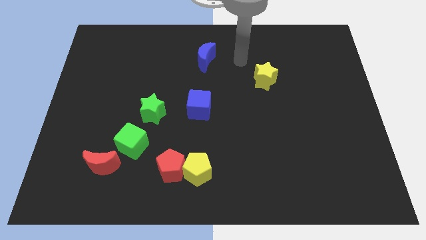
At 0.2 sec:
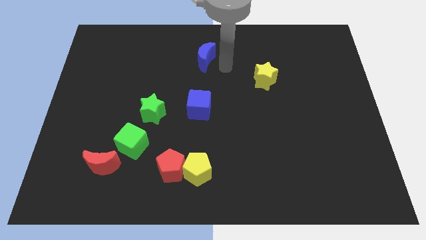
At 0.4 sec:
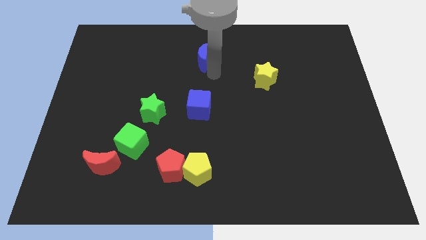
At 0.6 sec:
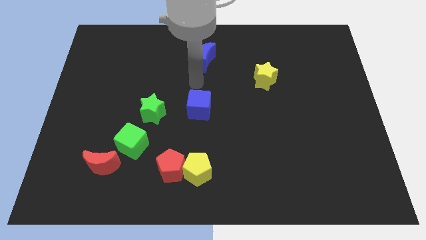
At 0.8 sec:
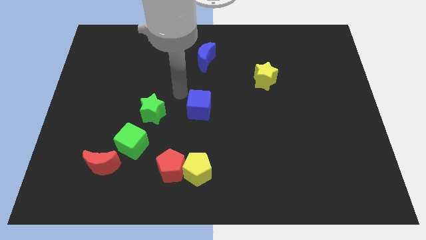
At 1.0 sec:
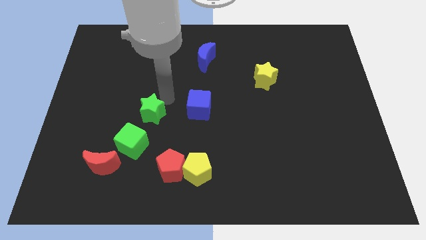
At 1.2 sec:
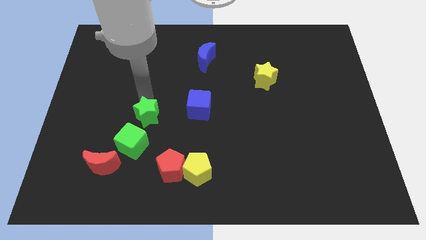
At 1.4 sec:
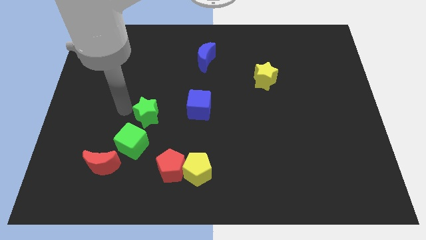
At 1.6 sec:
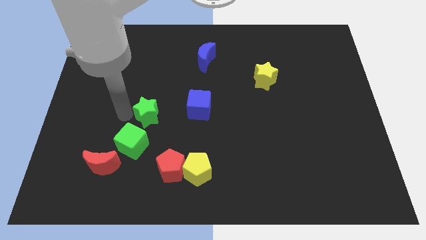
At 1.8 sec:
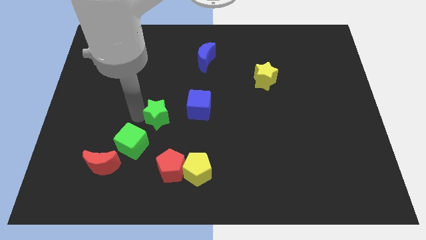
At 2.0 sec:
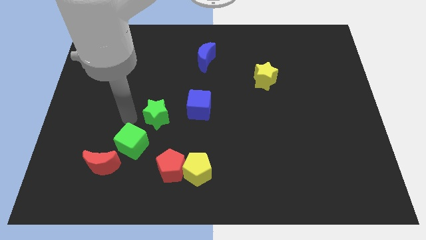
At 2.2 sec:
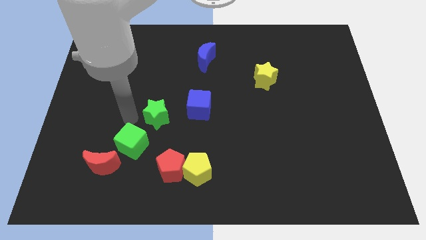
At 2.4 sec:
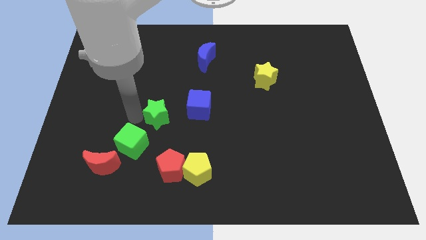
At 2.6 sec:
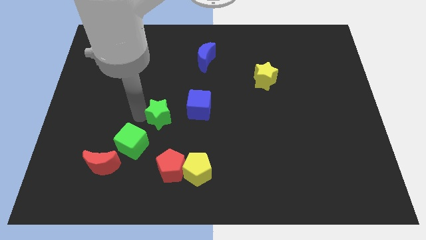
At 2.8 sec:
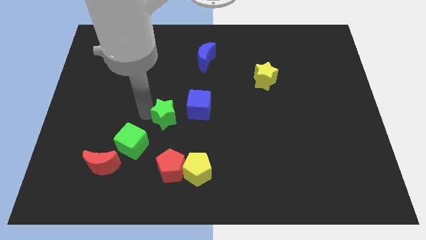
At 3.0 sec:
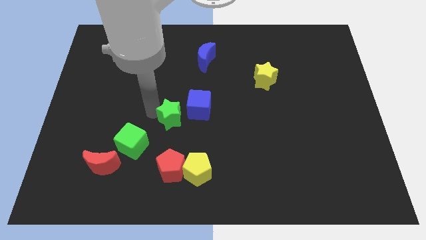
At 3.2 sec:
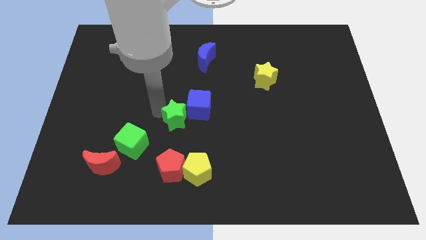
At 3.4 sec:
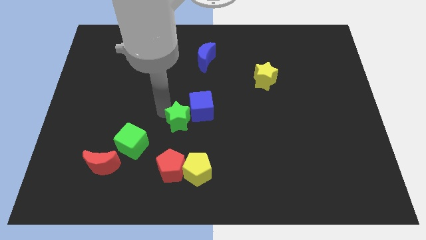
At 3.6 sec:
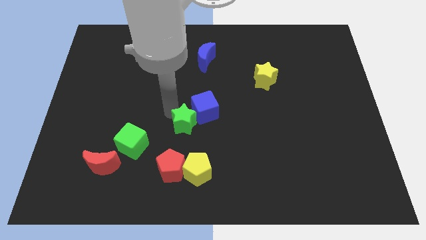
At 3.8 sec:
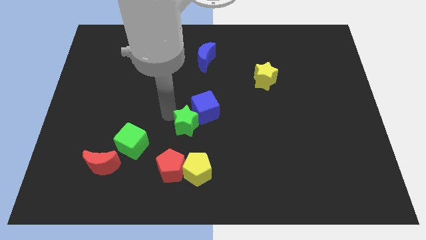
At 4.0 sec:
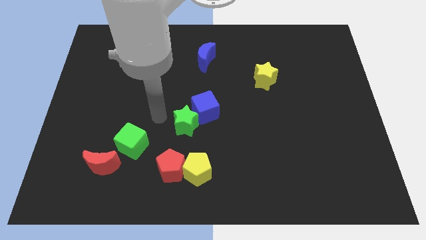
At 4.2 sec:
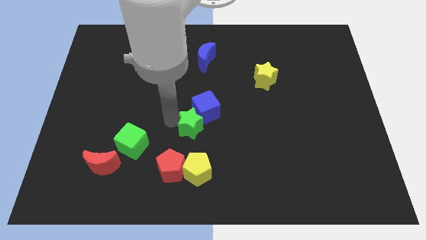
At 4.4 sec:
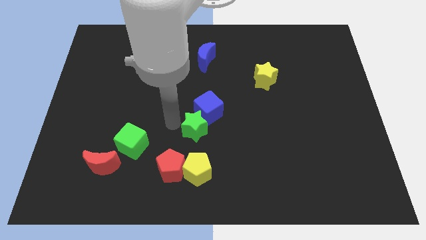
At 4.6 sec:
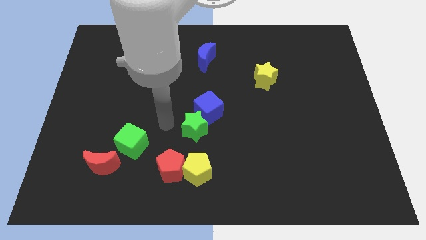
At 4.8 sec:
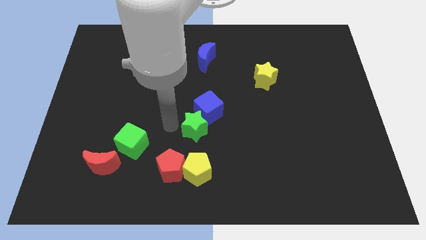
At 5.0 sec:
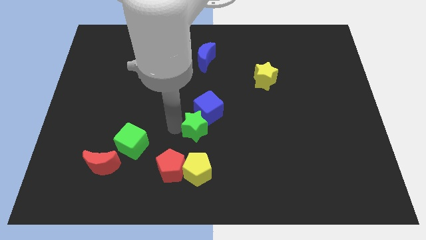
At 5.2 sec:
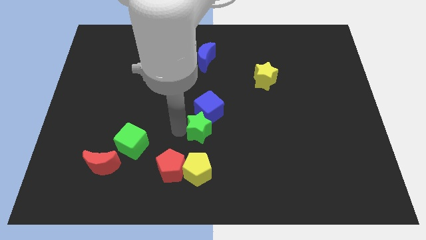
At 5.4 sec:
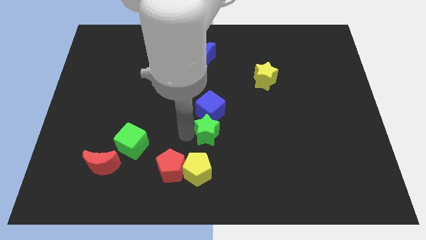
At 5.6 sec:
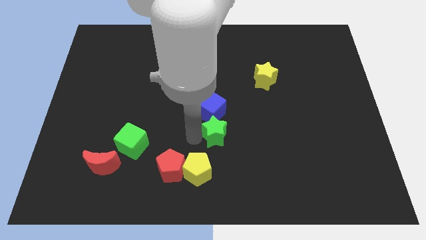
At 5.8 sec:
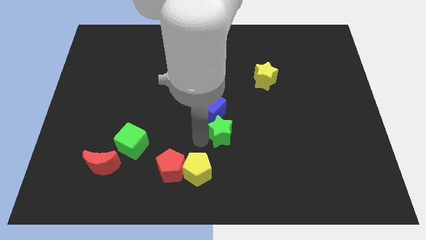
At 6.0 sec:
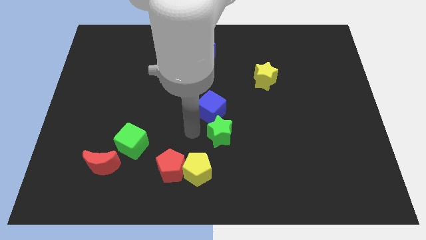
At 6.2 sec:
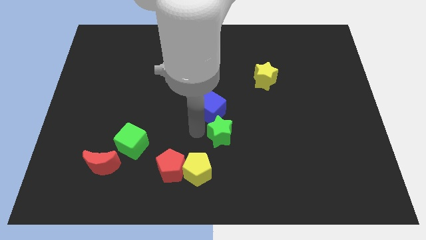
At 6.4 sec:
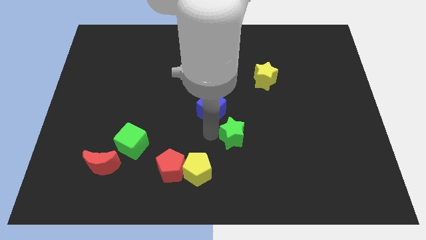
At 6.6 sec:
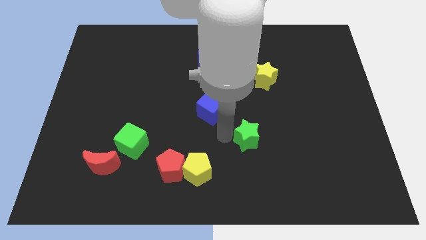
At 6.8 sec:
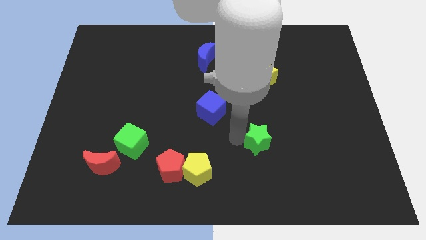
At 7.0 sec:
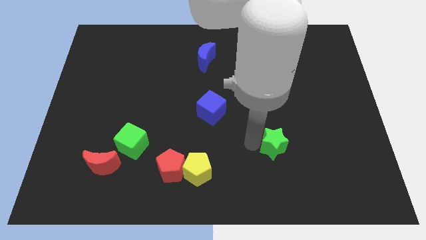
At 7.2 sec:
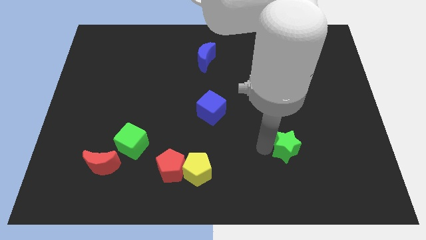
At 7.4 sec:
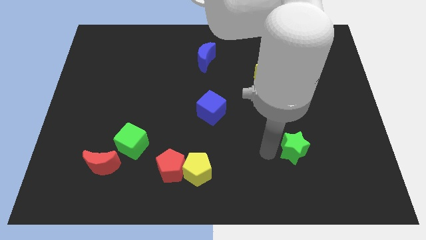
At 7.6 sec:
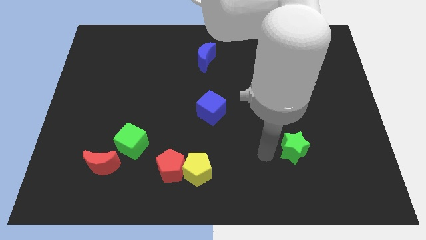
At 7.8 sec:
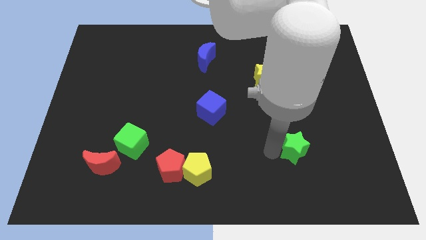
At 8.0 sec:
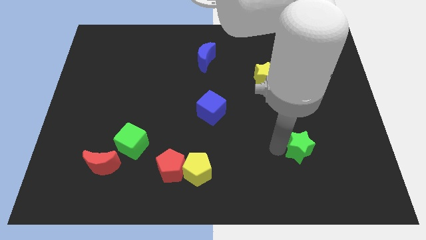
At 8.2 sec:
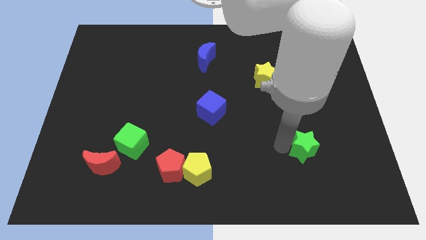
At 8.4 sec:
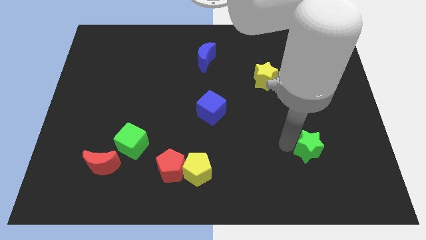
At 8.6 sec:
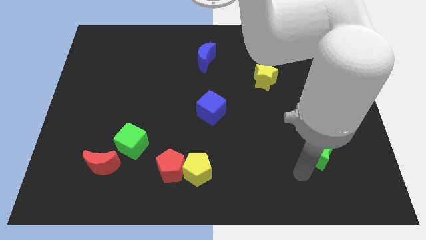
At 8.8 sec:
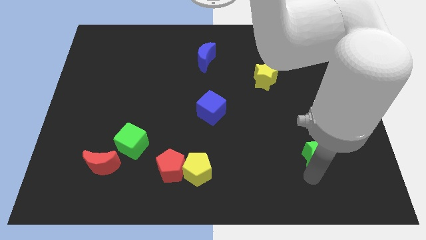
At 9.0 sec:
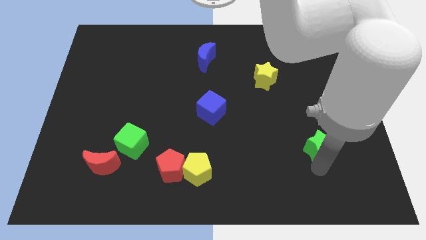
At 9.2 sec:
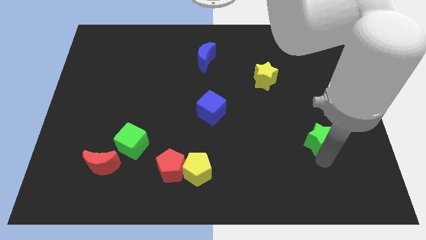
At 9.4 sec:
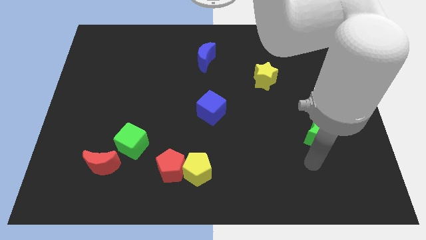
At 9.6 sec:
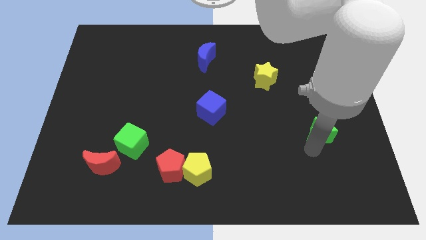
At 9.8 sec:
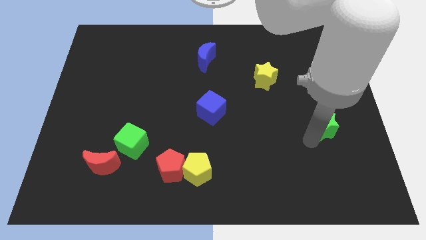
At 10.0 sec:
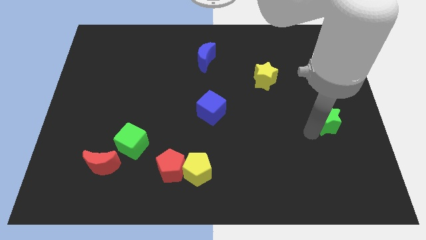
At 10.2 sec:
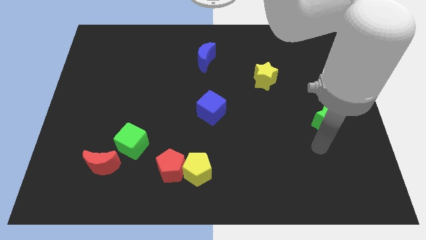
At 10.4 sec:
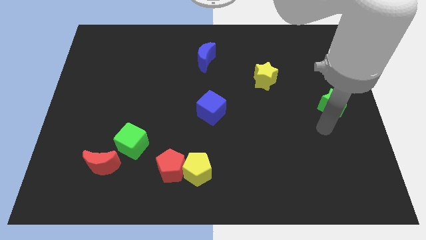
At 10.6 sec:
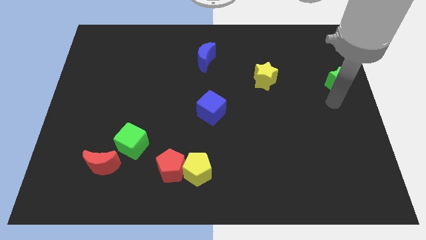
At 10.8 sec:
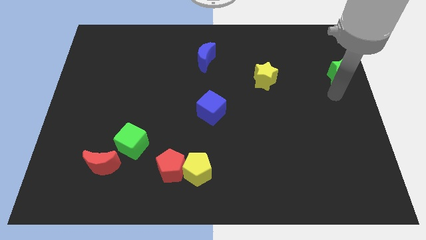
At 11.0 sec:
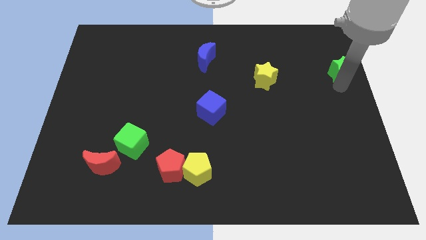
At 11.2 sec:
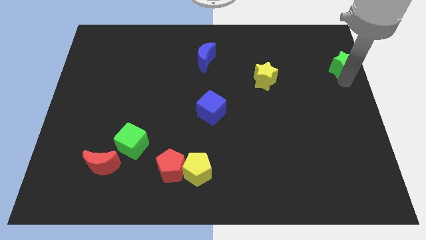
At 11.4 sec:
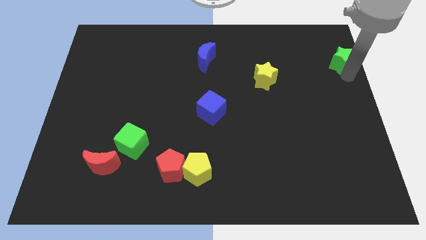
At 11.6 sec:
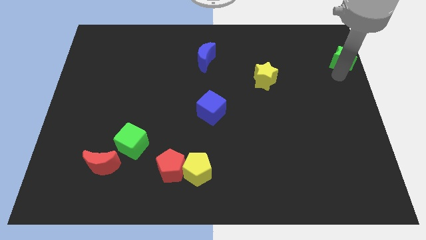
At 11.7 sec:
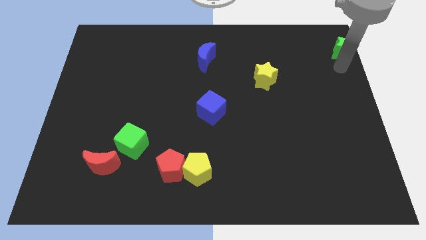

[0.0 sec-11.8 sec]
slide the green star to the upper right corner
